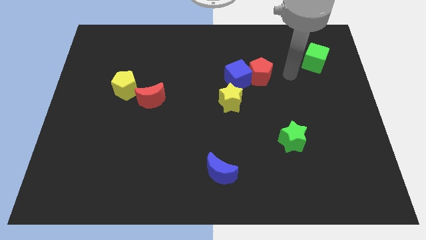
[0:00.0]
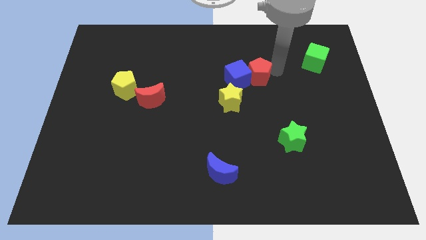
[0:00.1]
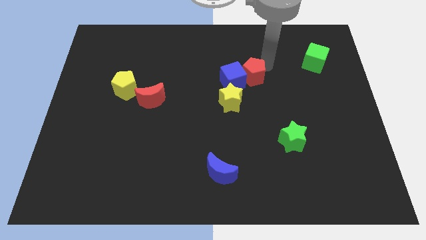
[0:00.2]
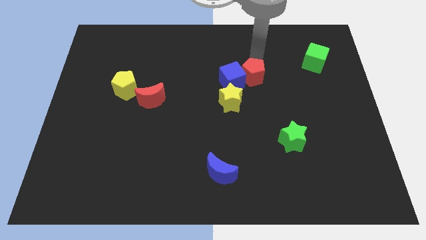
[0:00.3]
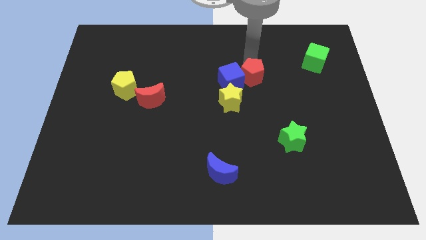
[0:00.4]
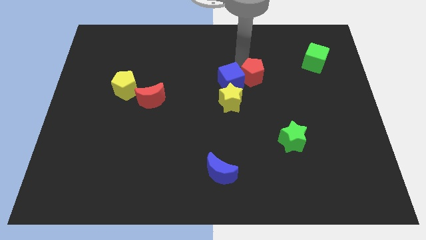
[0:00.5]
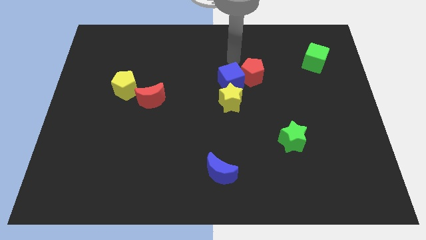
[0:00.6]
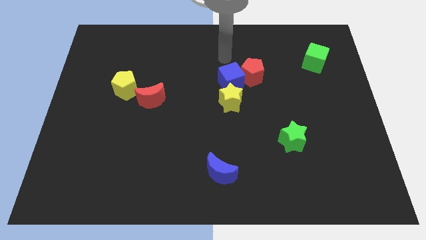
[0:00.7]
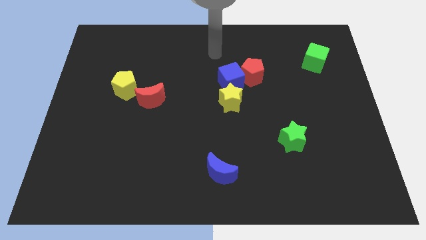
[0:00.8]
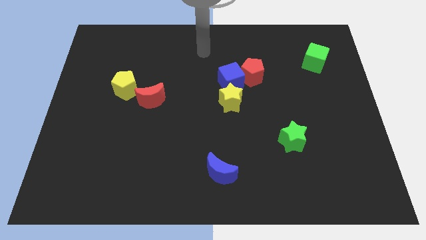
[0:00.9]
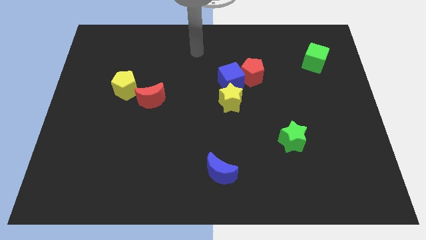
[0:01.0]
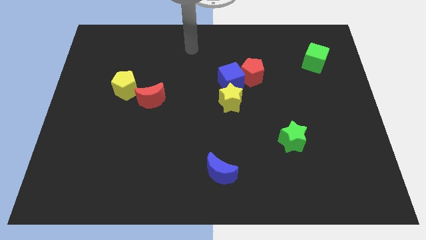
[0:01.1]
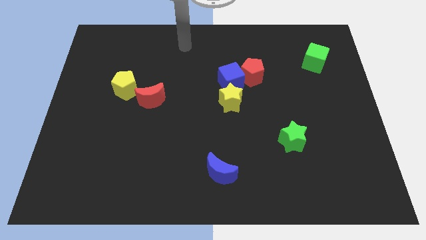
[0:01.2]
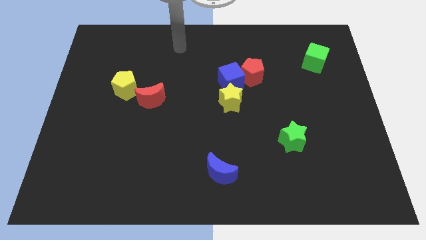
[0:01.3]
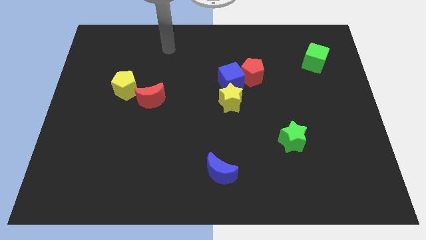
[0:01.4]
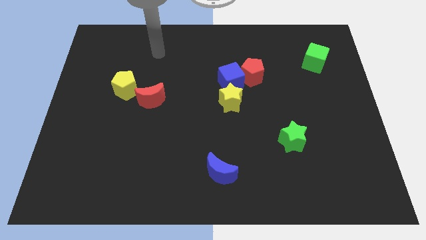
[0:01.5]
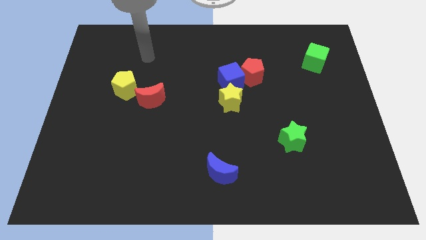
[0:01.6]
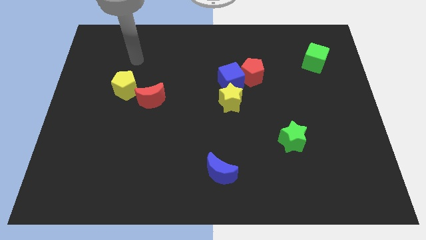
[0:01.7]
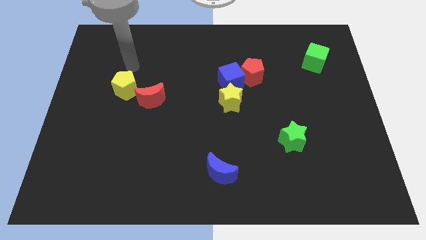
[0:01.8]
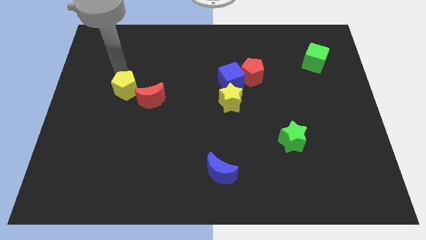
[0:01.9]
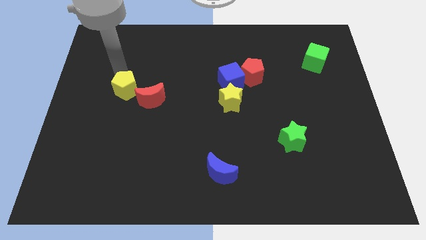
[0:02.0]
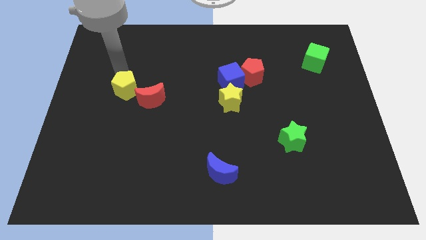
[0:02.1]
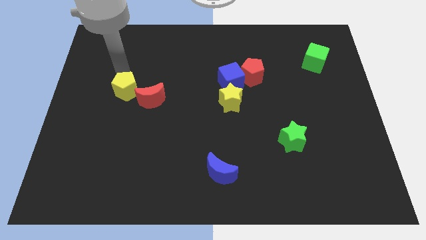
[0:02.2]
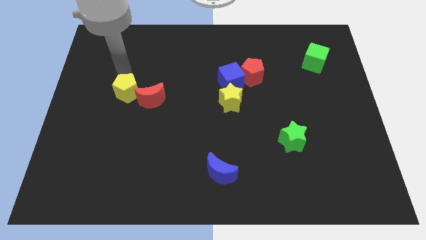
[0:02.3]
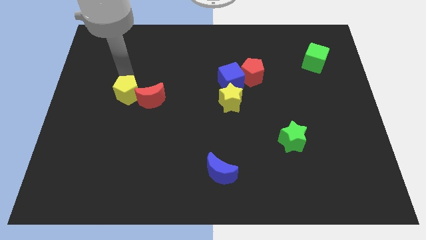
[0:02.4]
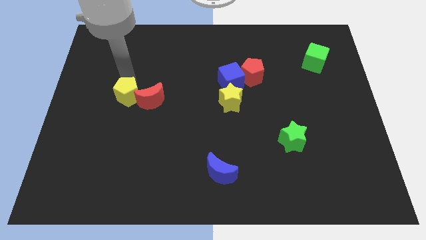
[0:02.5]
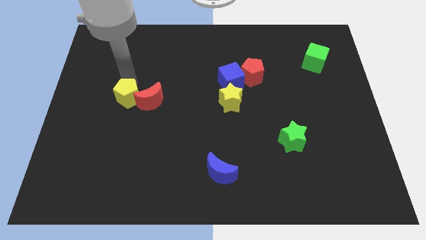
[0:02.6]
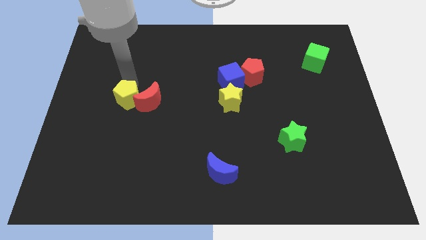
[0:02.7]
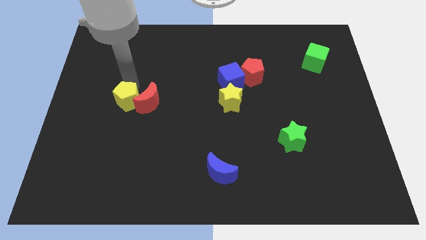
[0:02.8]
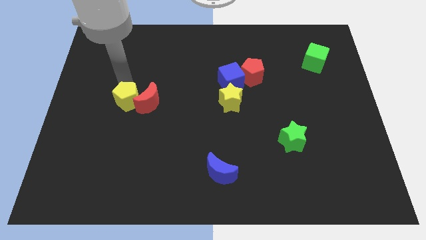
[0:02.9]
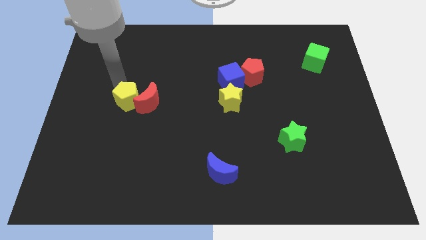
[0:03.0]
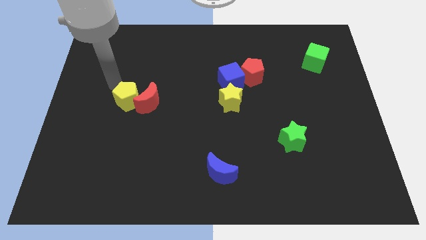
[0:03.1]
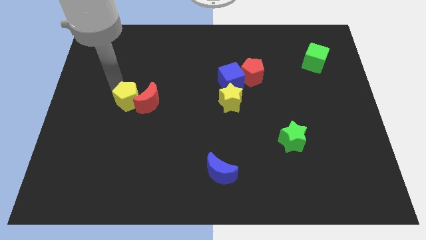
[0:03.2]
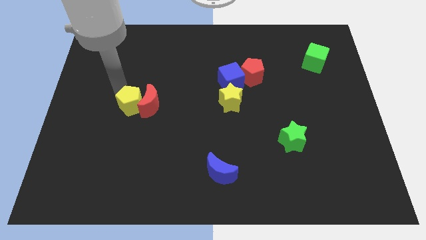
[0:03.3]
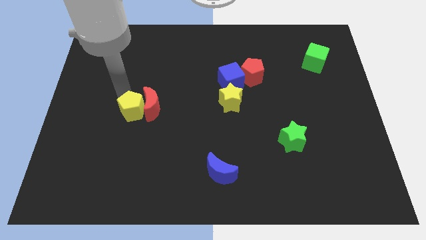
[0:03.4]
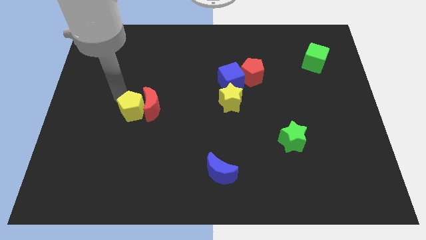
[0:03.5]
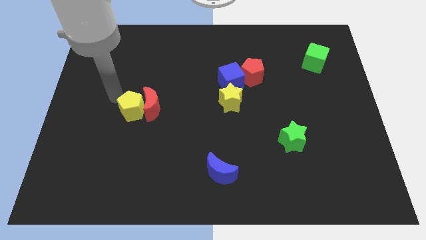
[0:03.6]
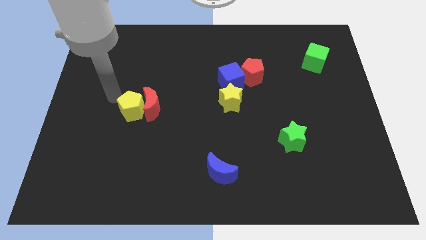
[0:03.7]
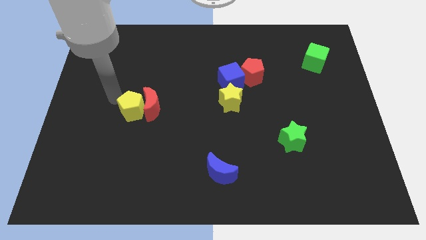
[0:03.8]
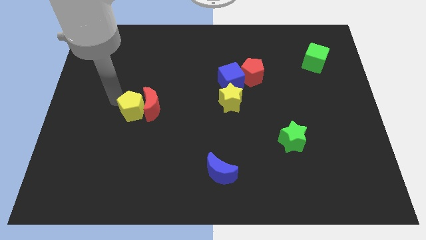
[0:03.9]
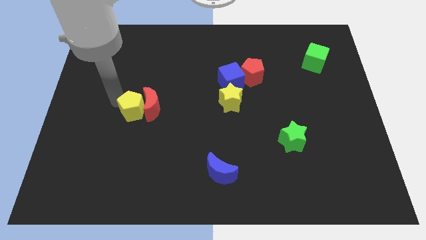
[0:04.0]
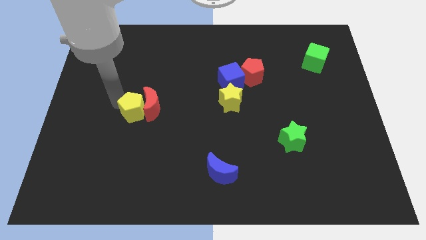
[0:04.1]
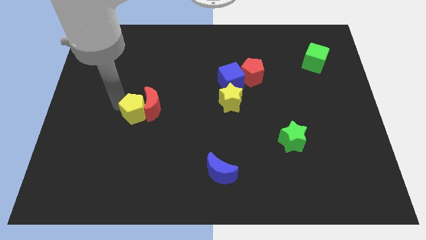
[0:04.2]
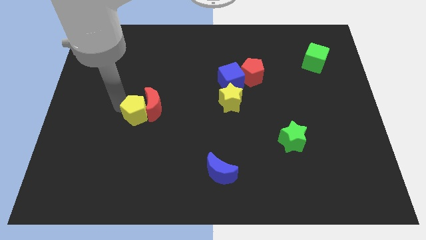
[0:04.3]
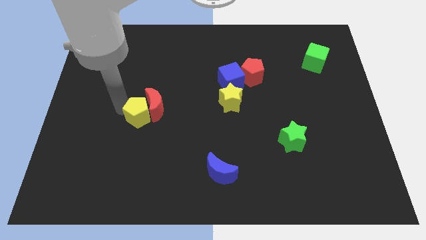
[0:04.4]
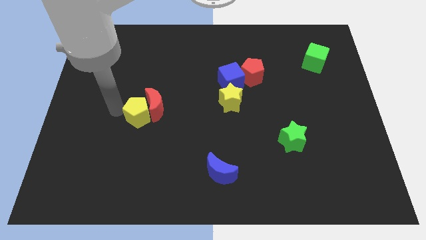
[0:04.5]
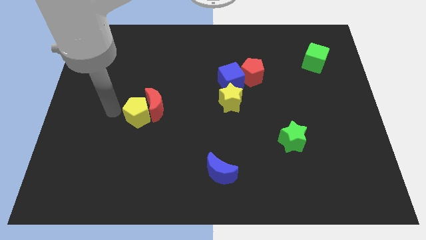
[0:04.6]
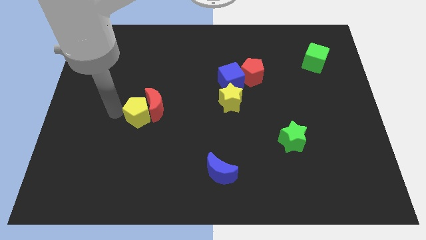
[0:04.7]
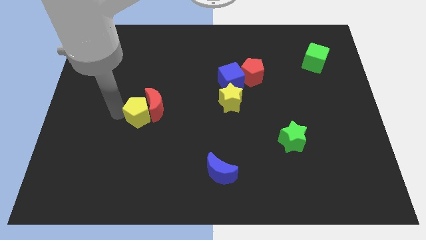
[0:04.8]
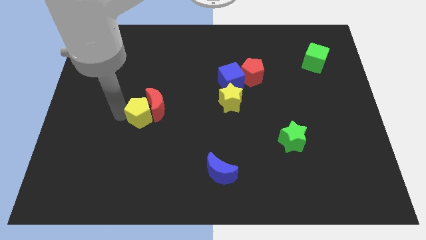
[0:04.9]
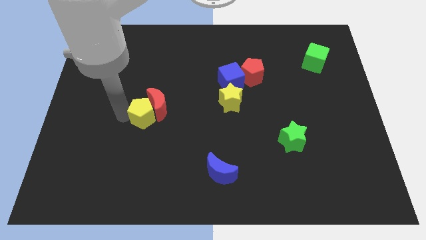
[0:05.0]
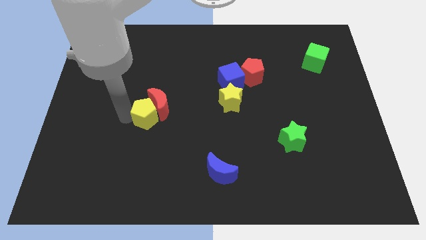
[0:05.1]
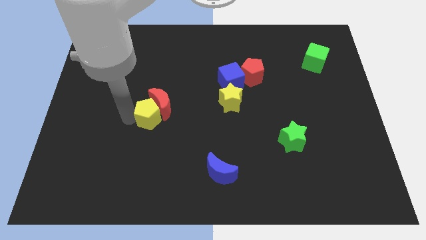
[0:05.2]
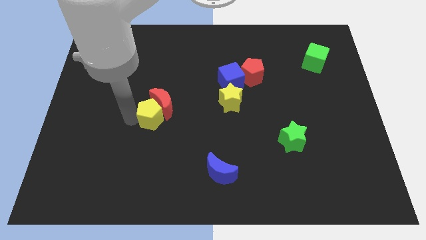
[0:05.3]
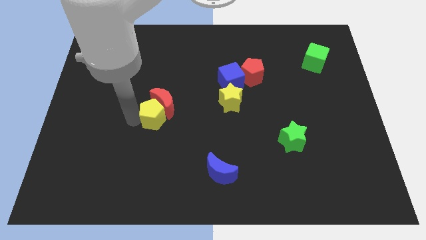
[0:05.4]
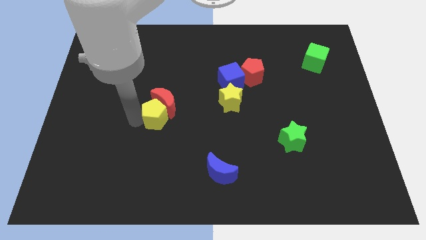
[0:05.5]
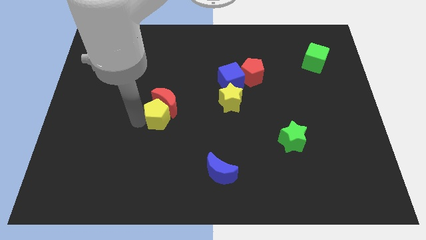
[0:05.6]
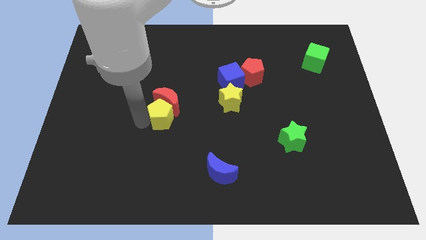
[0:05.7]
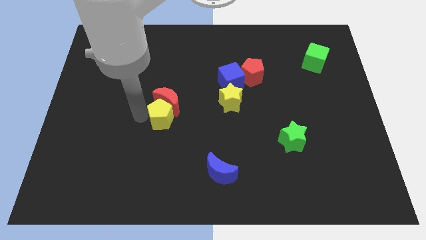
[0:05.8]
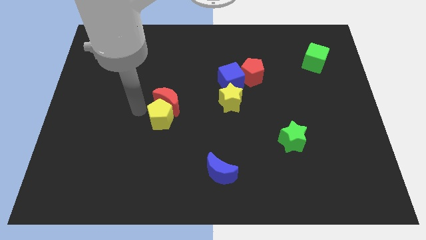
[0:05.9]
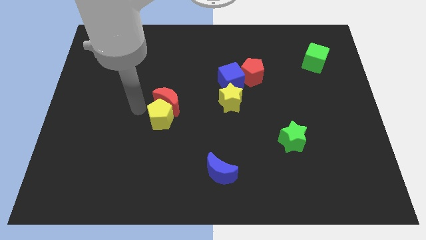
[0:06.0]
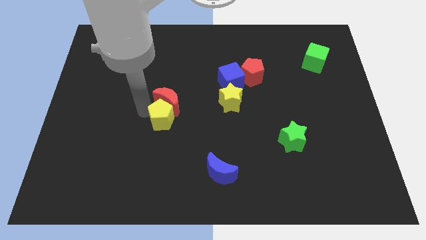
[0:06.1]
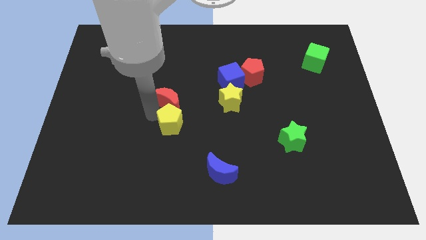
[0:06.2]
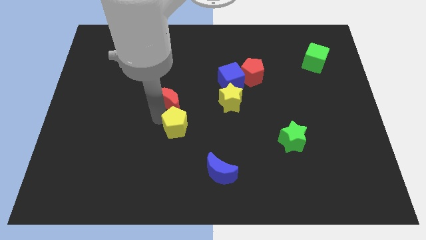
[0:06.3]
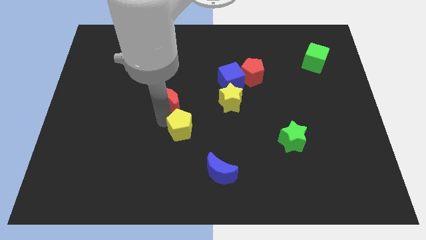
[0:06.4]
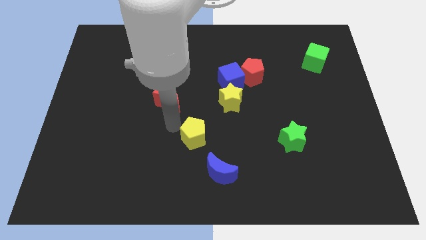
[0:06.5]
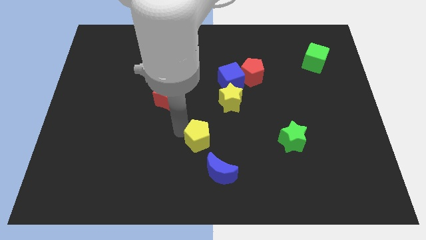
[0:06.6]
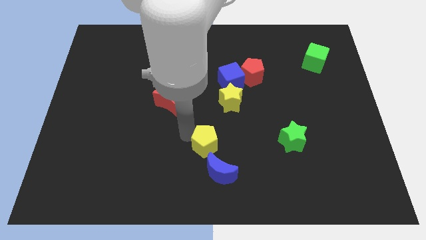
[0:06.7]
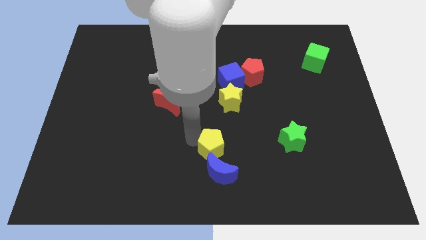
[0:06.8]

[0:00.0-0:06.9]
move the yellow pentagon to the bottom of the yellow star
